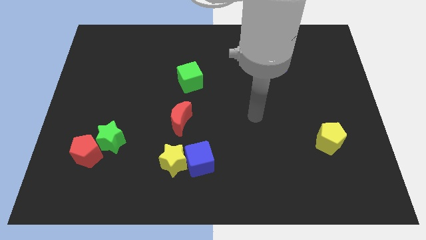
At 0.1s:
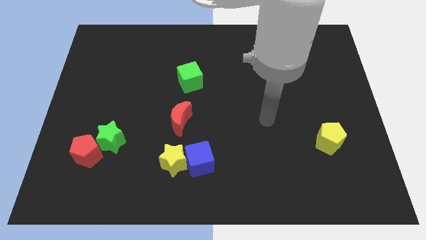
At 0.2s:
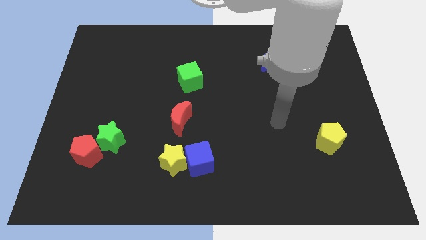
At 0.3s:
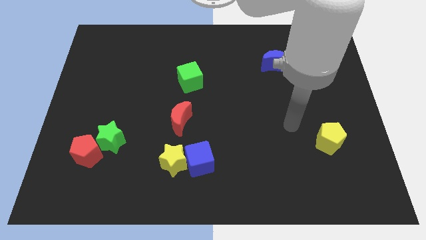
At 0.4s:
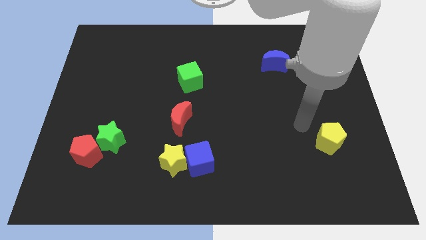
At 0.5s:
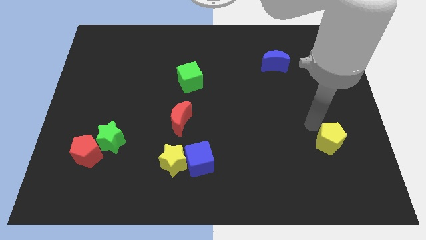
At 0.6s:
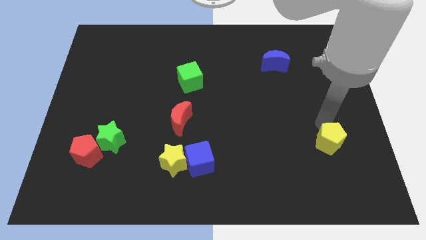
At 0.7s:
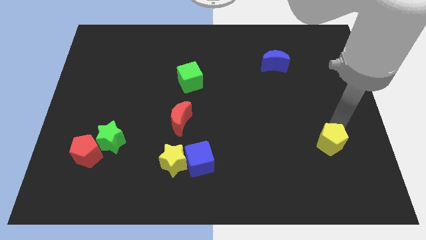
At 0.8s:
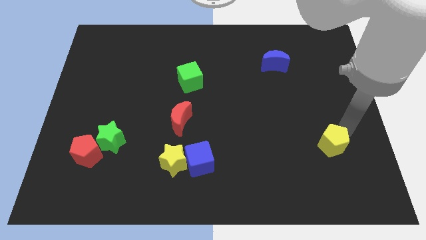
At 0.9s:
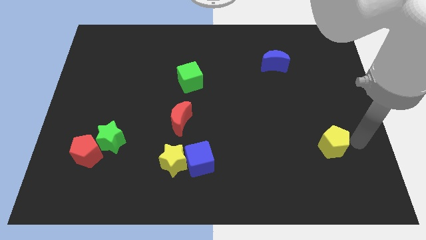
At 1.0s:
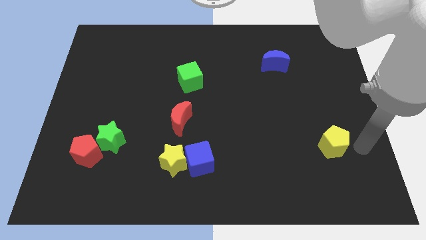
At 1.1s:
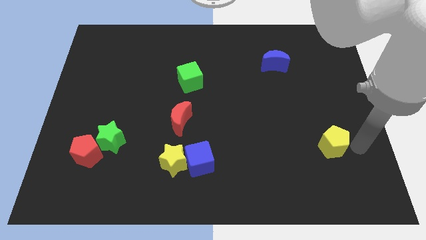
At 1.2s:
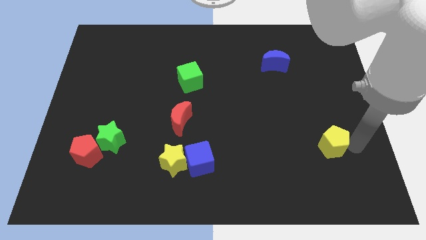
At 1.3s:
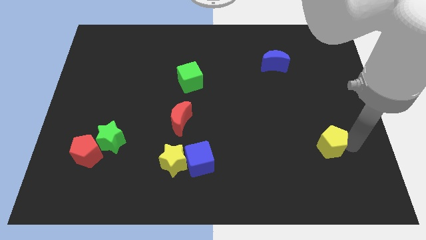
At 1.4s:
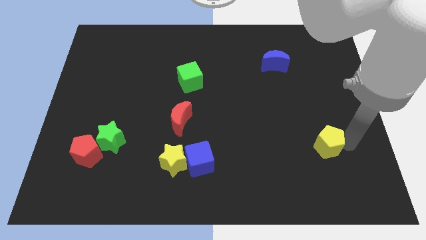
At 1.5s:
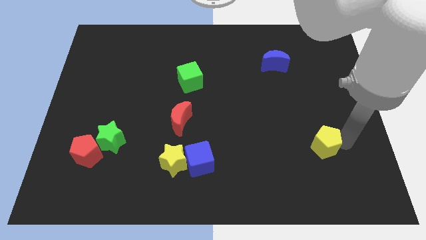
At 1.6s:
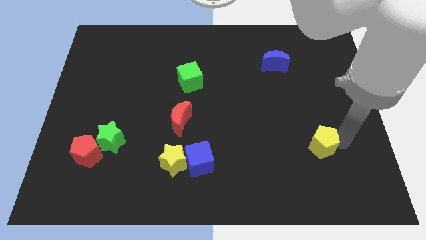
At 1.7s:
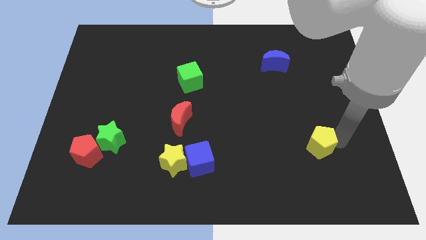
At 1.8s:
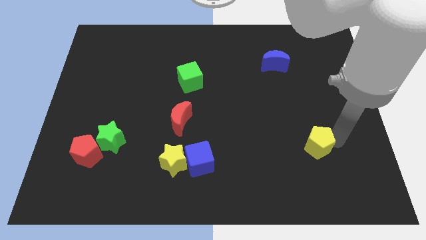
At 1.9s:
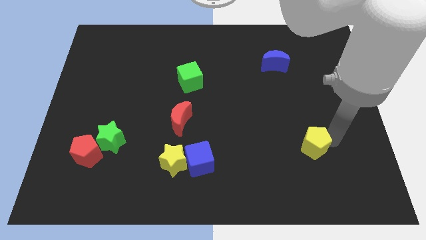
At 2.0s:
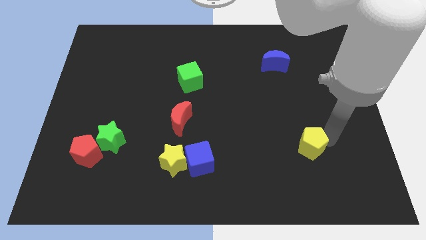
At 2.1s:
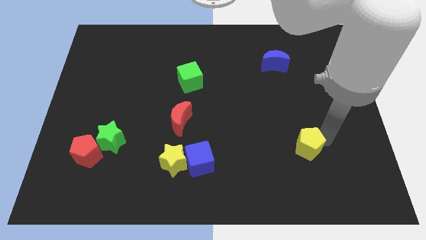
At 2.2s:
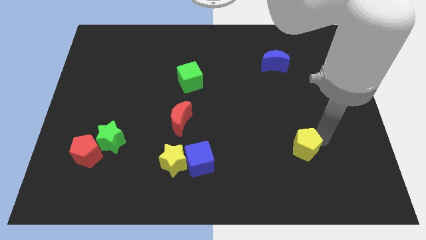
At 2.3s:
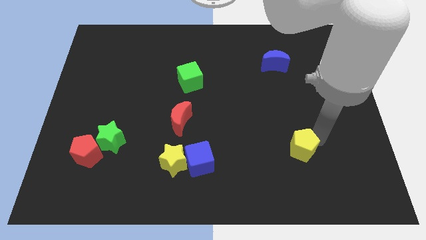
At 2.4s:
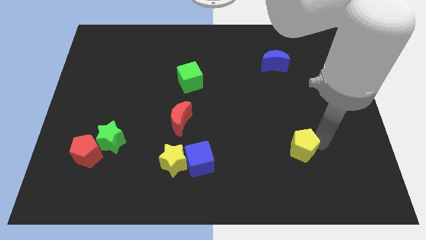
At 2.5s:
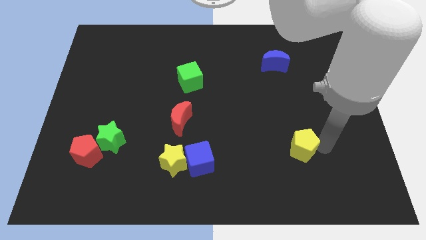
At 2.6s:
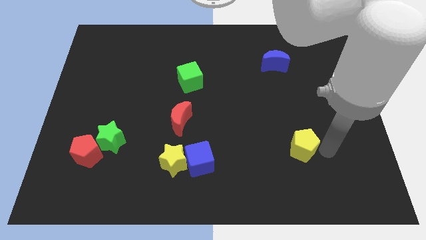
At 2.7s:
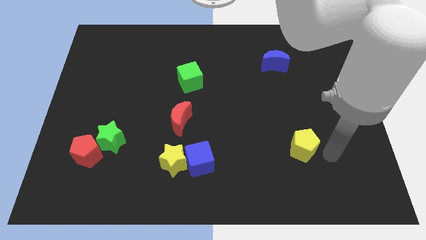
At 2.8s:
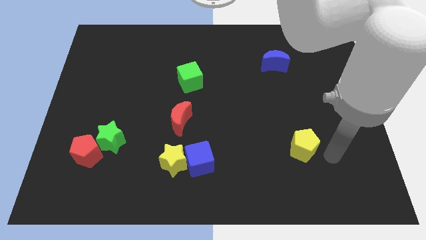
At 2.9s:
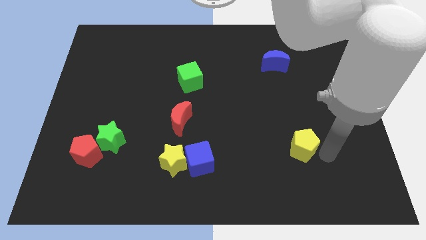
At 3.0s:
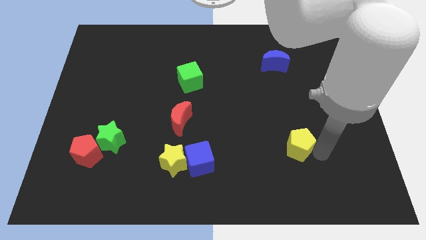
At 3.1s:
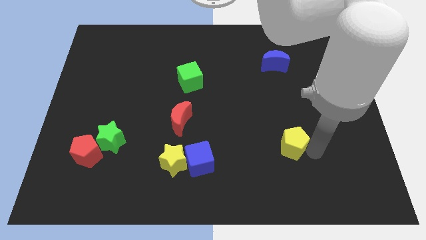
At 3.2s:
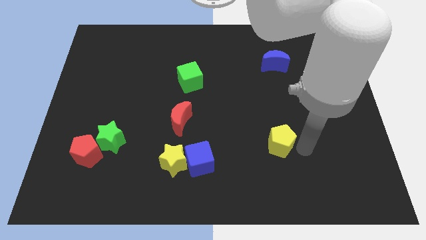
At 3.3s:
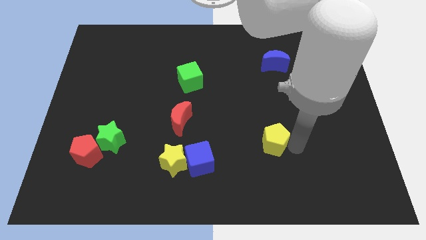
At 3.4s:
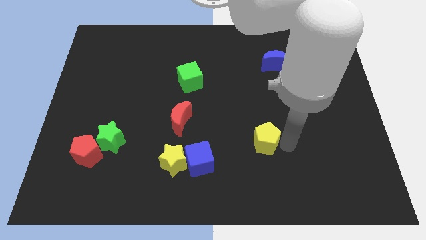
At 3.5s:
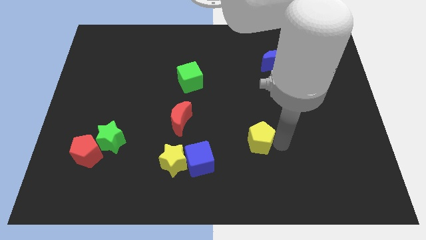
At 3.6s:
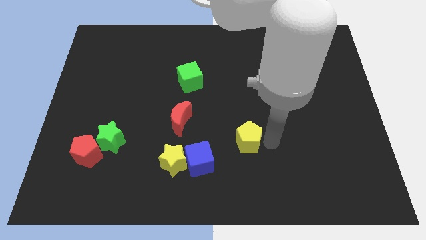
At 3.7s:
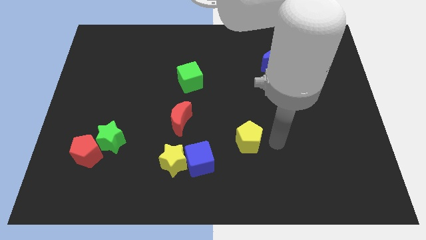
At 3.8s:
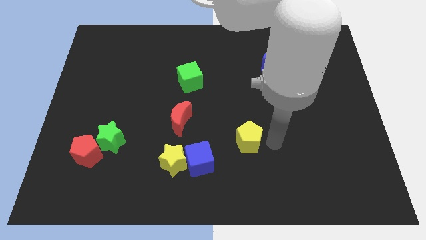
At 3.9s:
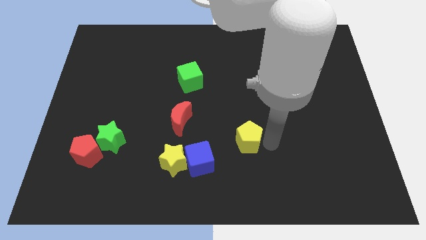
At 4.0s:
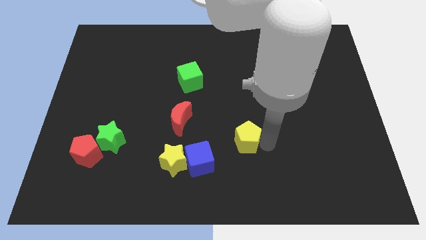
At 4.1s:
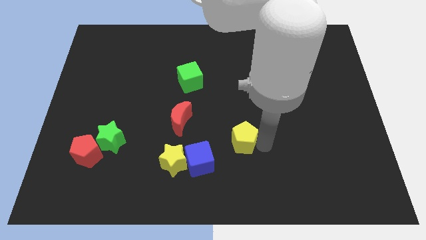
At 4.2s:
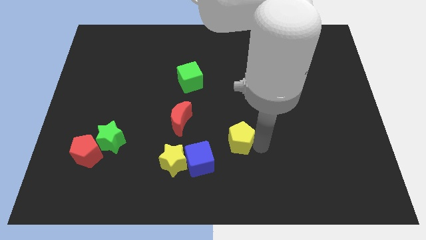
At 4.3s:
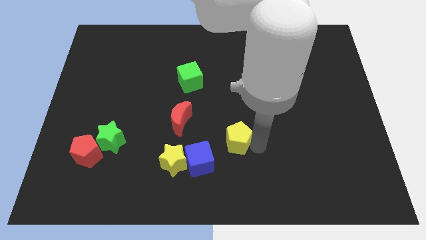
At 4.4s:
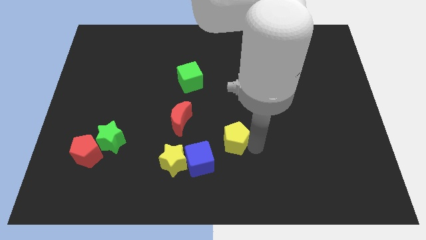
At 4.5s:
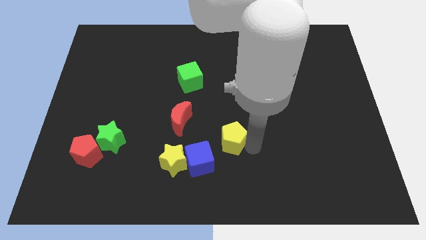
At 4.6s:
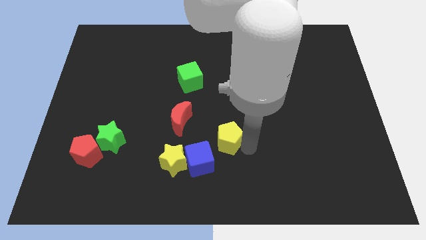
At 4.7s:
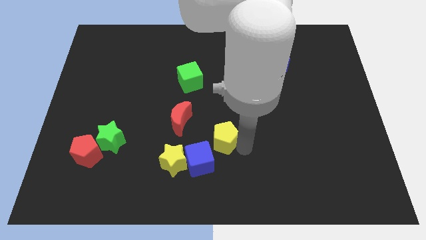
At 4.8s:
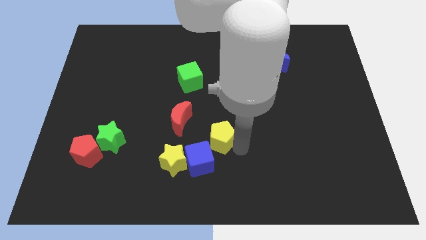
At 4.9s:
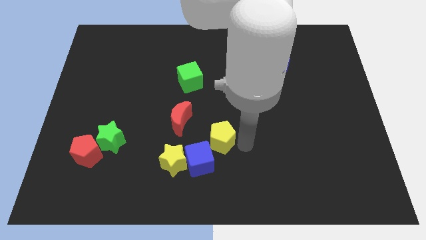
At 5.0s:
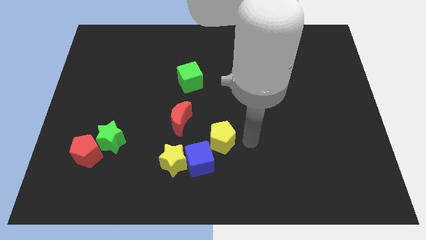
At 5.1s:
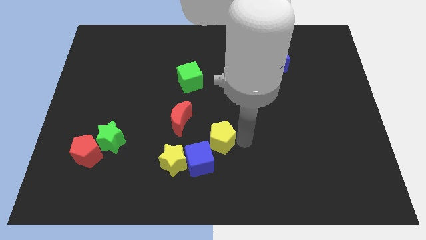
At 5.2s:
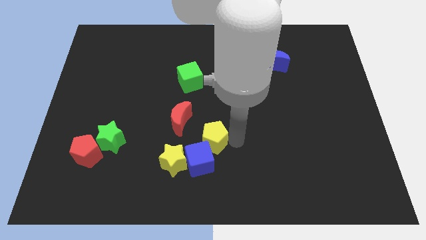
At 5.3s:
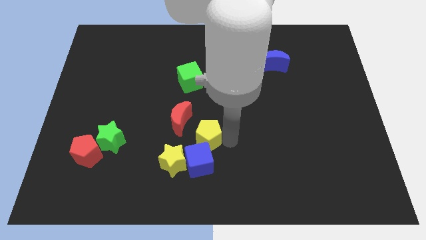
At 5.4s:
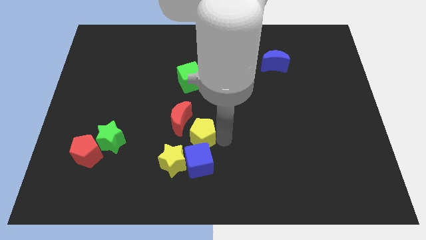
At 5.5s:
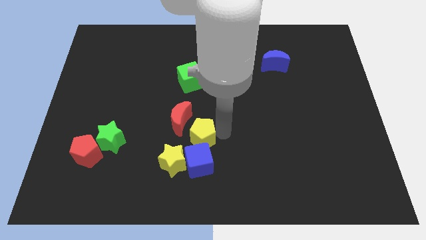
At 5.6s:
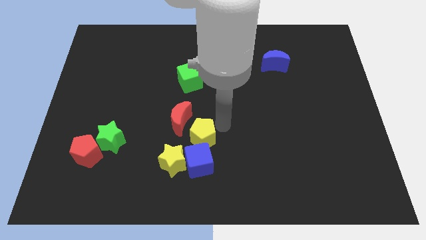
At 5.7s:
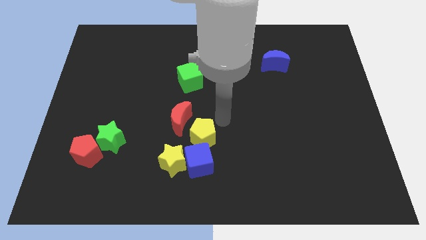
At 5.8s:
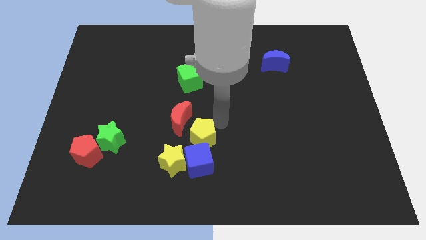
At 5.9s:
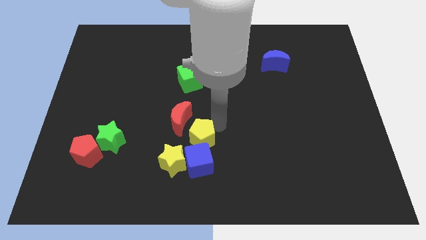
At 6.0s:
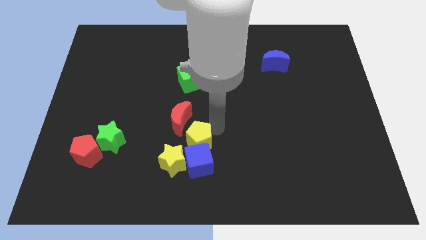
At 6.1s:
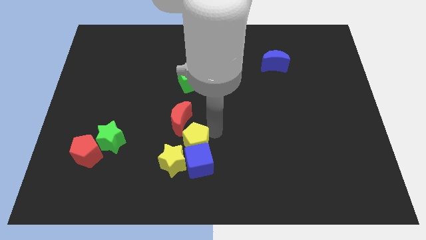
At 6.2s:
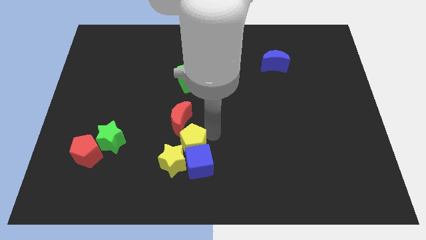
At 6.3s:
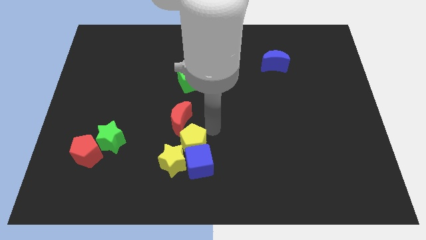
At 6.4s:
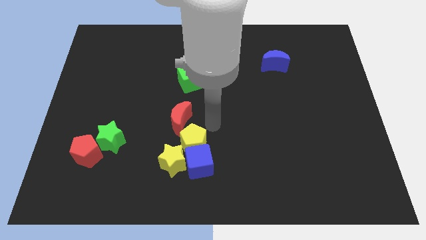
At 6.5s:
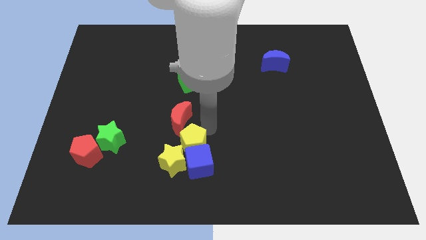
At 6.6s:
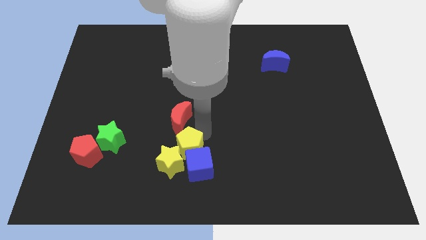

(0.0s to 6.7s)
push the yellow pentagon to the yellow star

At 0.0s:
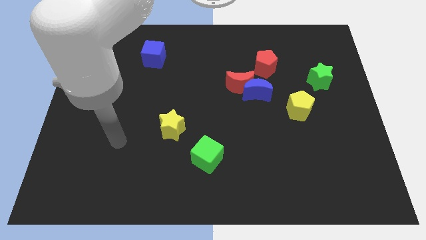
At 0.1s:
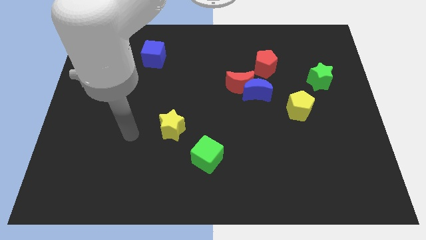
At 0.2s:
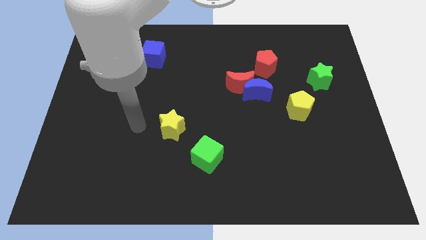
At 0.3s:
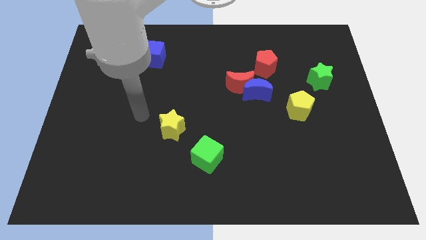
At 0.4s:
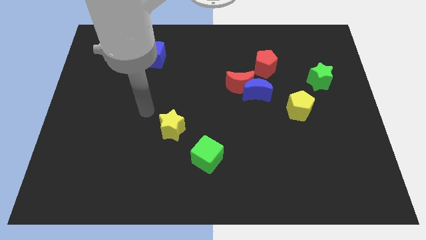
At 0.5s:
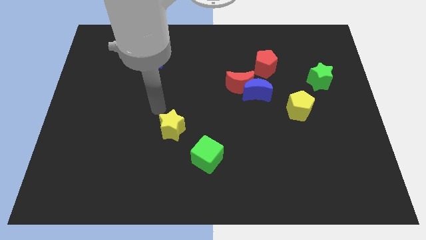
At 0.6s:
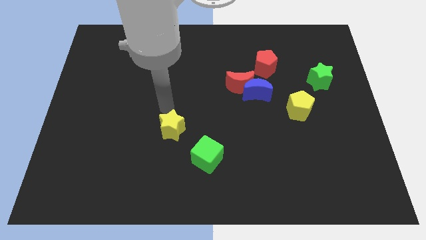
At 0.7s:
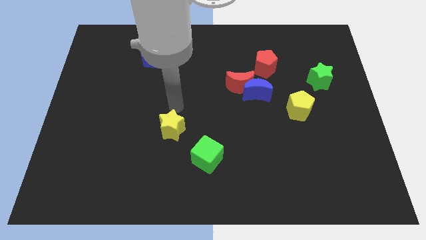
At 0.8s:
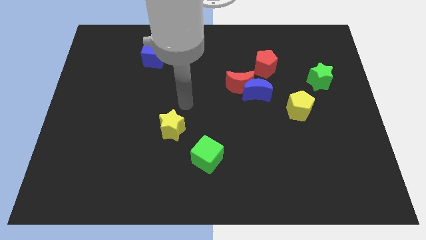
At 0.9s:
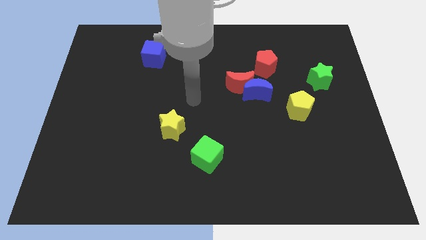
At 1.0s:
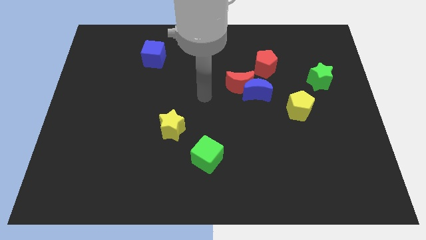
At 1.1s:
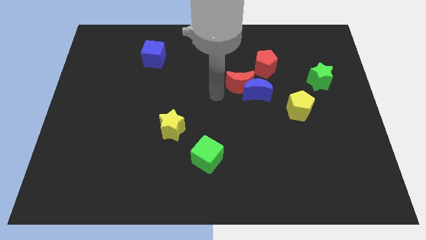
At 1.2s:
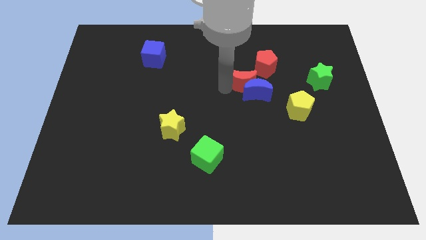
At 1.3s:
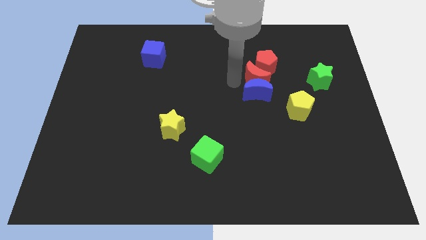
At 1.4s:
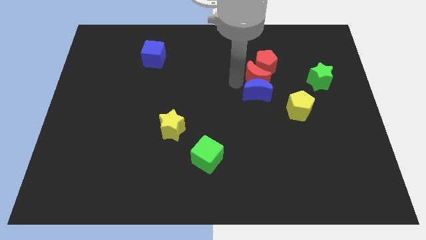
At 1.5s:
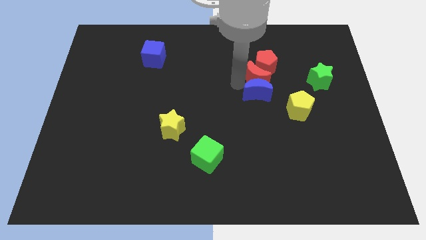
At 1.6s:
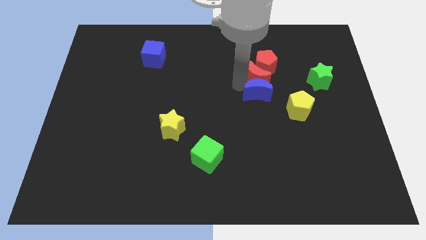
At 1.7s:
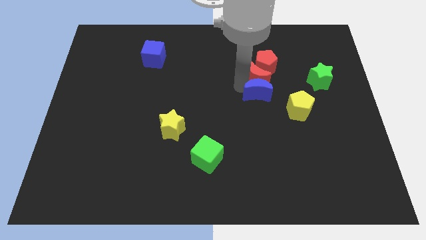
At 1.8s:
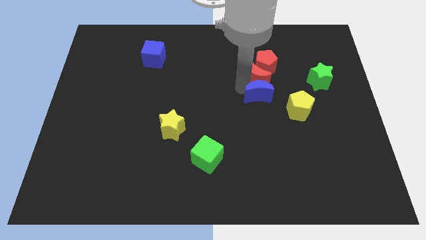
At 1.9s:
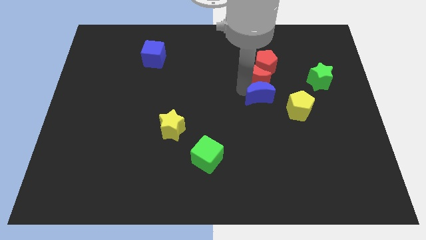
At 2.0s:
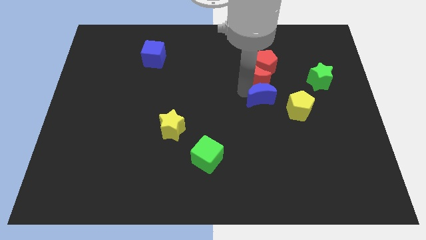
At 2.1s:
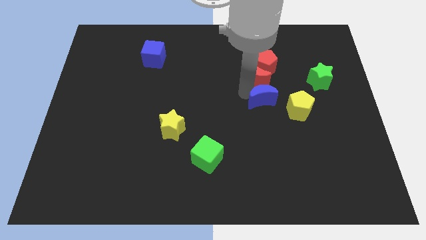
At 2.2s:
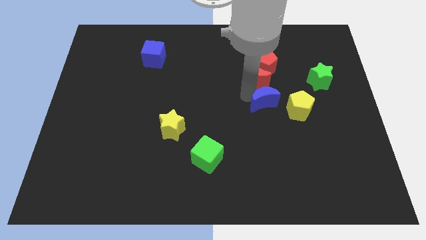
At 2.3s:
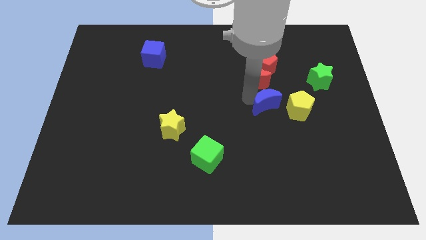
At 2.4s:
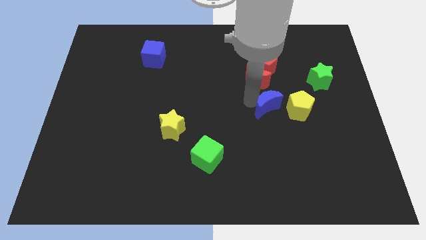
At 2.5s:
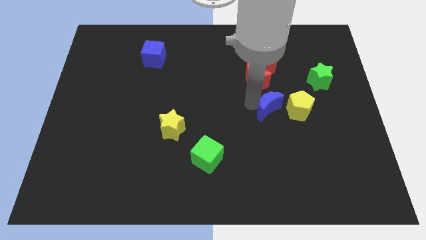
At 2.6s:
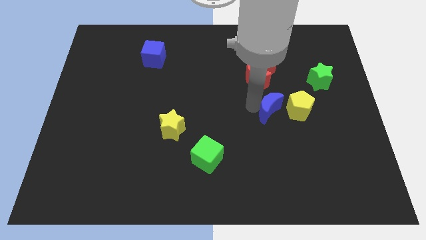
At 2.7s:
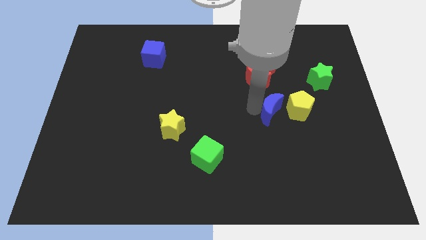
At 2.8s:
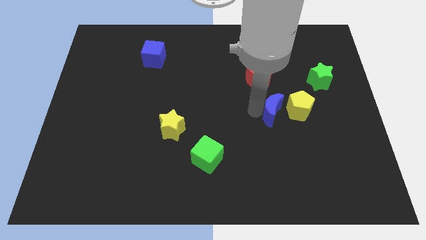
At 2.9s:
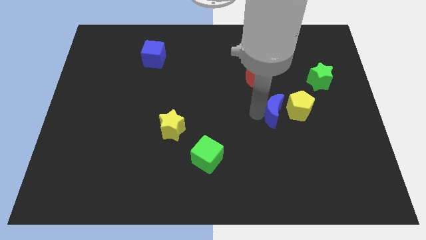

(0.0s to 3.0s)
push the blue moon close to the yellow pentagon
